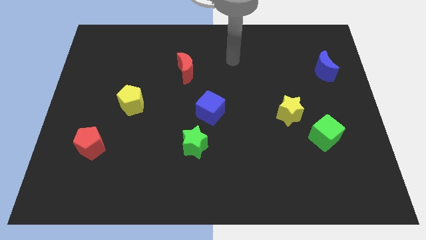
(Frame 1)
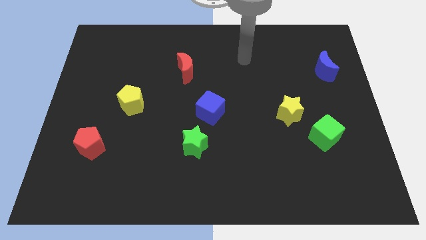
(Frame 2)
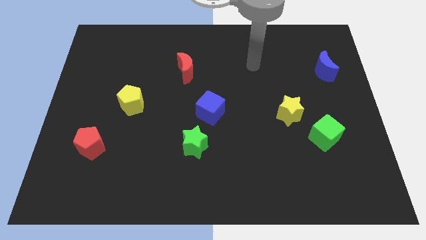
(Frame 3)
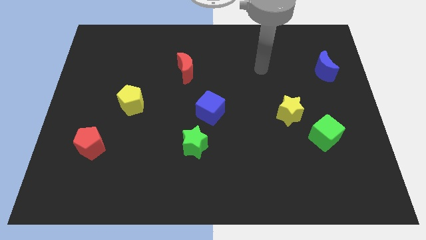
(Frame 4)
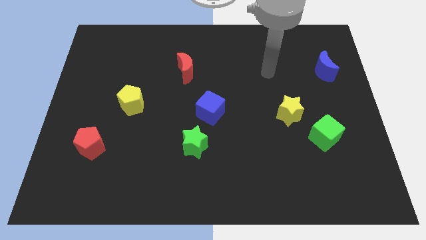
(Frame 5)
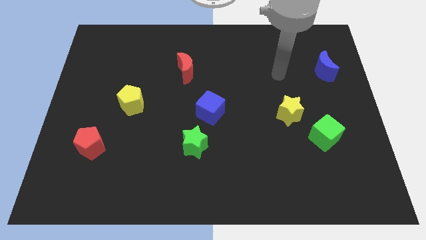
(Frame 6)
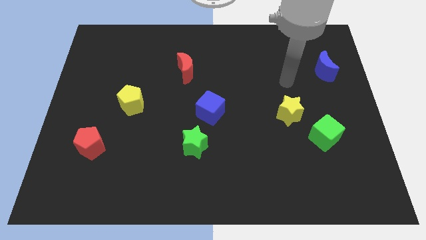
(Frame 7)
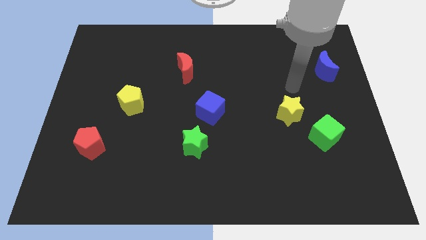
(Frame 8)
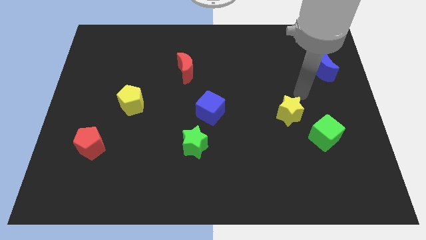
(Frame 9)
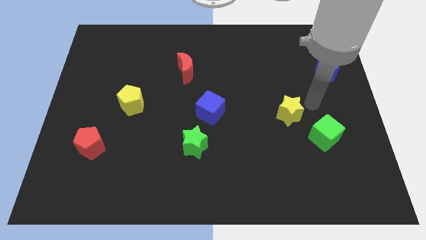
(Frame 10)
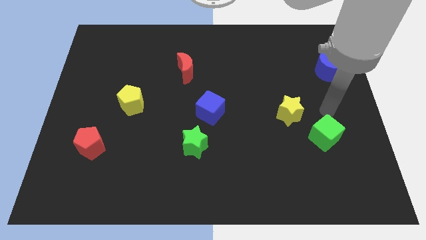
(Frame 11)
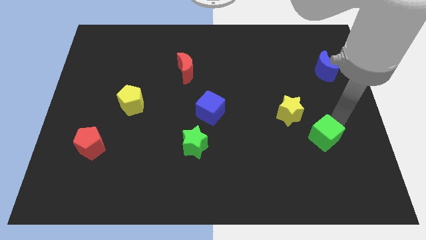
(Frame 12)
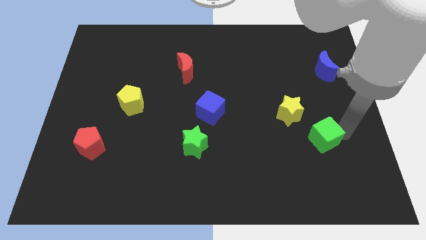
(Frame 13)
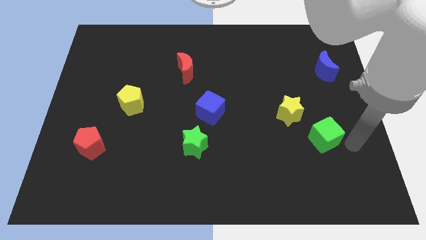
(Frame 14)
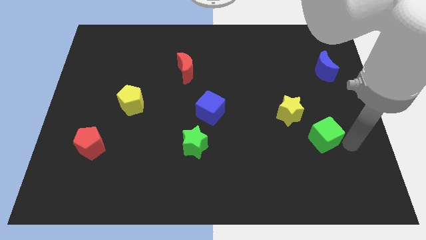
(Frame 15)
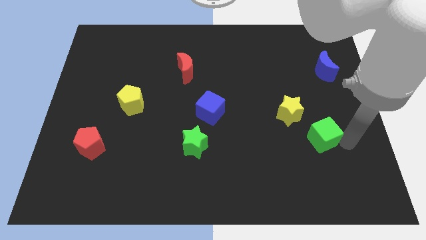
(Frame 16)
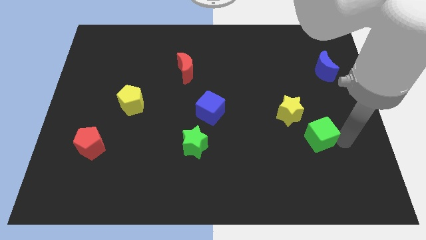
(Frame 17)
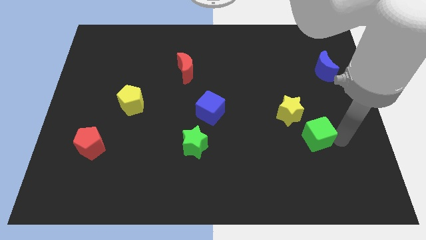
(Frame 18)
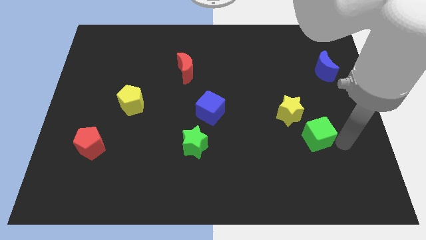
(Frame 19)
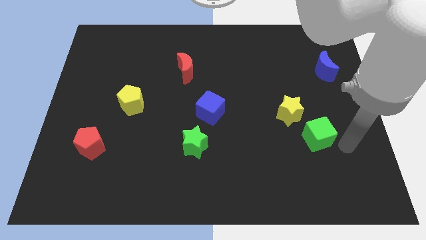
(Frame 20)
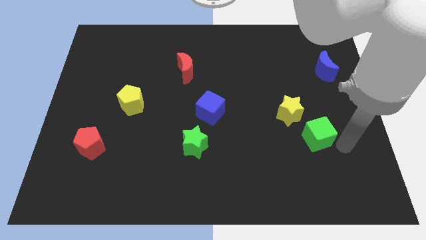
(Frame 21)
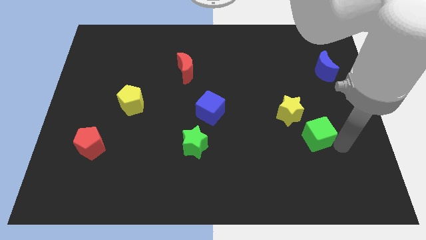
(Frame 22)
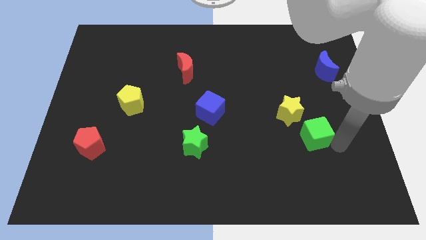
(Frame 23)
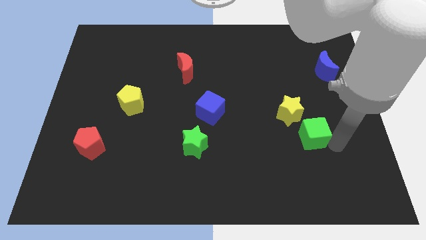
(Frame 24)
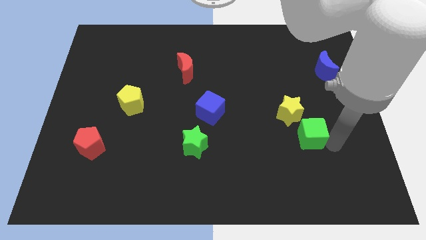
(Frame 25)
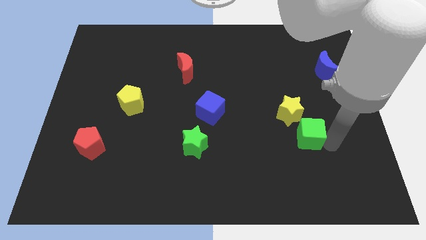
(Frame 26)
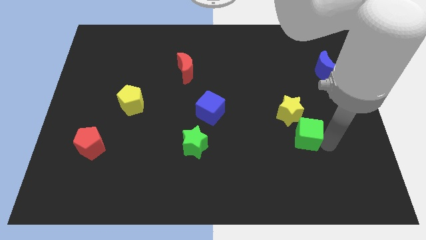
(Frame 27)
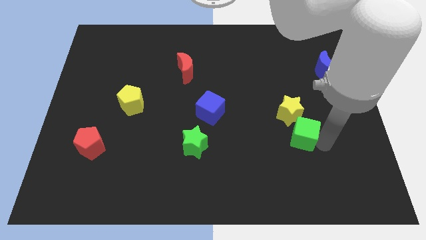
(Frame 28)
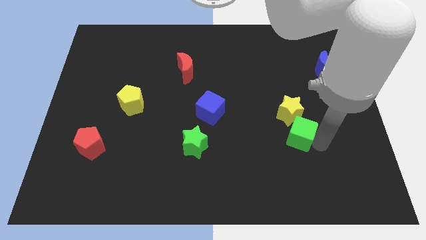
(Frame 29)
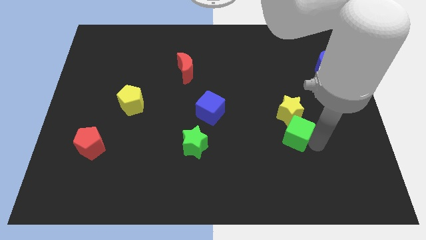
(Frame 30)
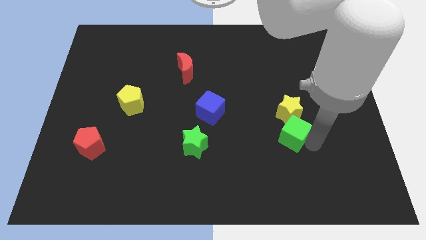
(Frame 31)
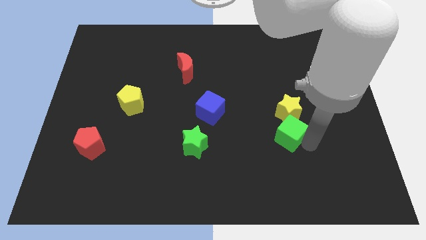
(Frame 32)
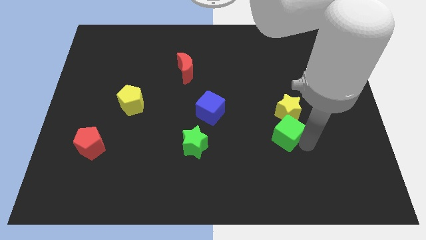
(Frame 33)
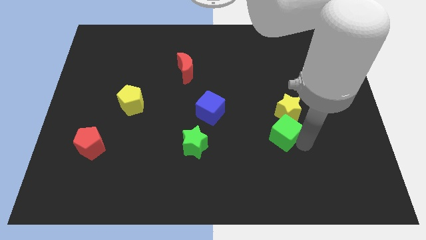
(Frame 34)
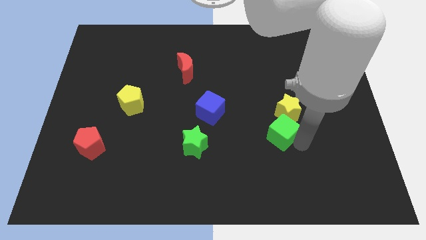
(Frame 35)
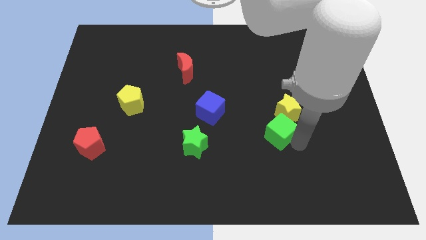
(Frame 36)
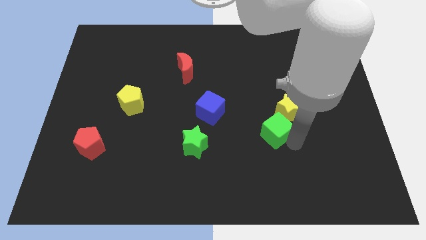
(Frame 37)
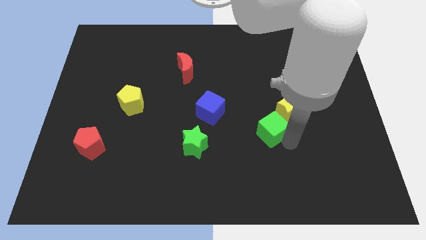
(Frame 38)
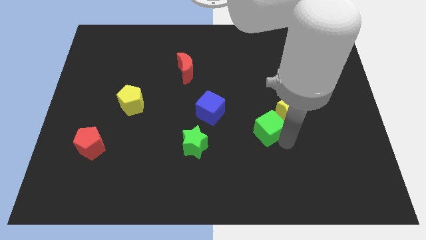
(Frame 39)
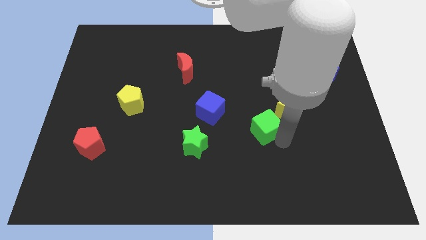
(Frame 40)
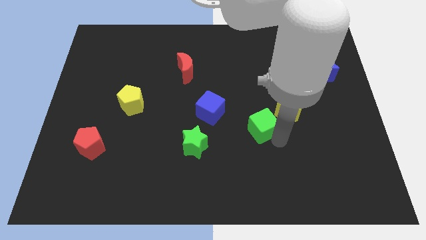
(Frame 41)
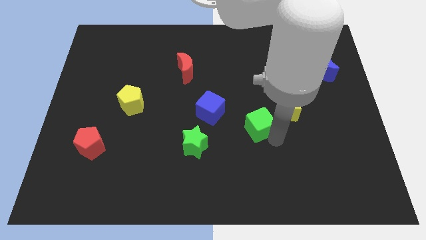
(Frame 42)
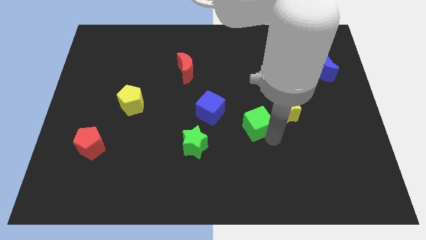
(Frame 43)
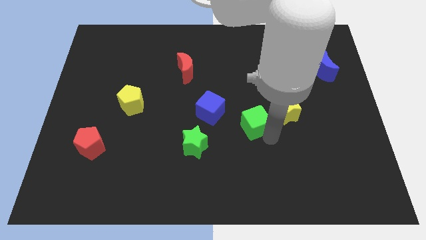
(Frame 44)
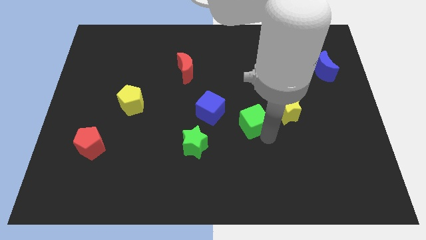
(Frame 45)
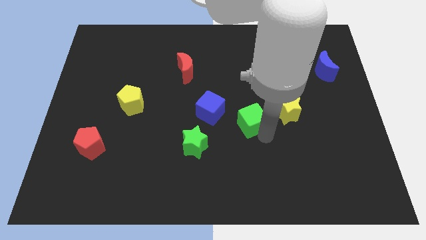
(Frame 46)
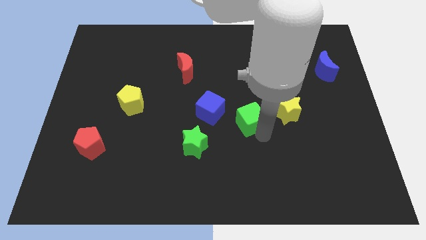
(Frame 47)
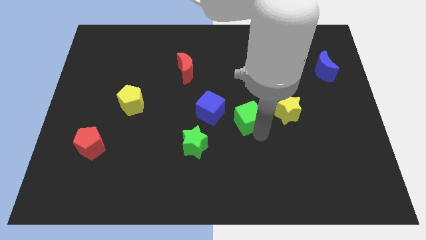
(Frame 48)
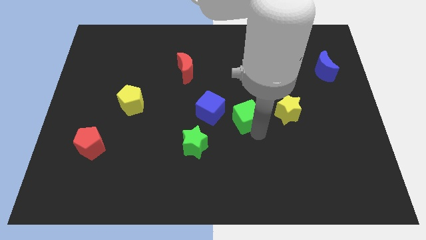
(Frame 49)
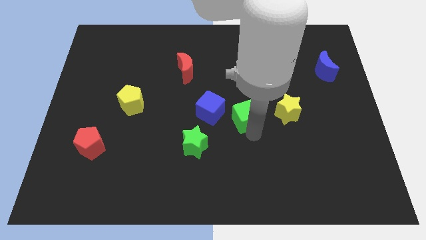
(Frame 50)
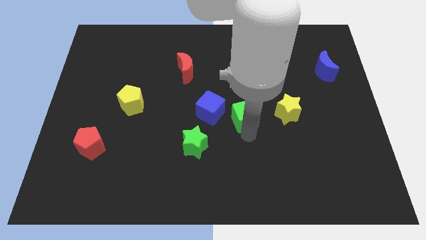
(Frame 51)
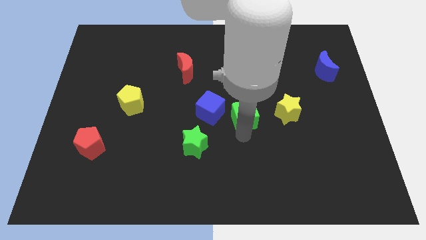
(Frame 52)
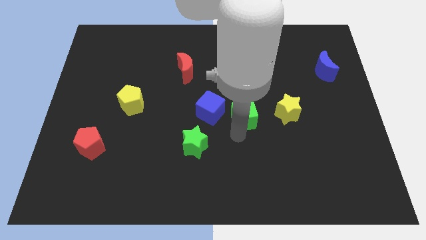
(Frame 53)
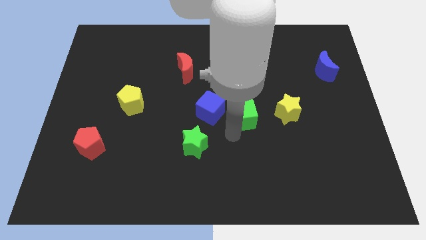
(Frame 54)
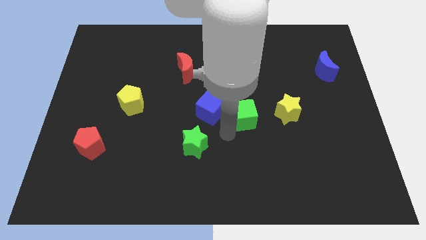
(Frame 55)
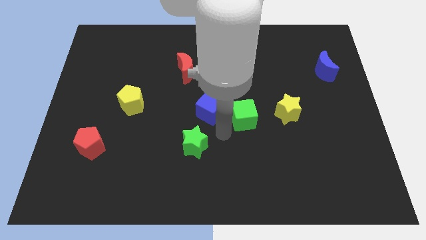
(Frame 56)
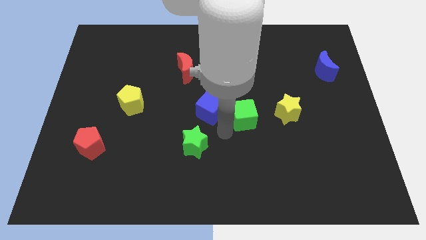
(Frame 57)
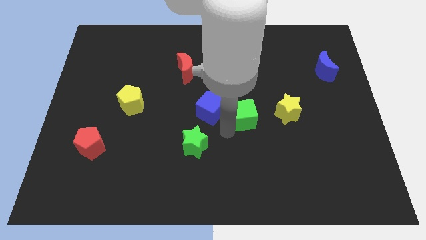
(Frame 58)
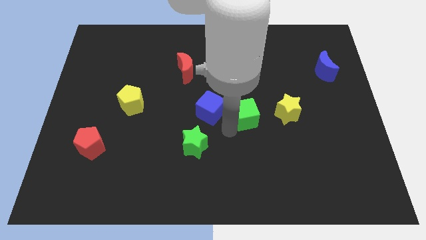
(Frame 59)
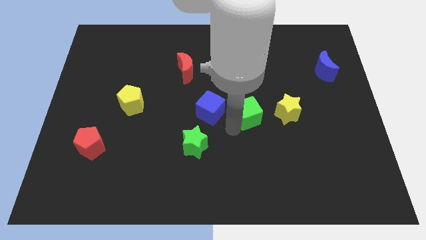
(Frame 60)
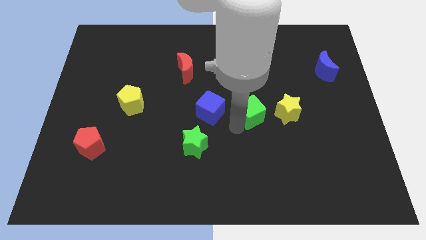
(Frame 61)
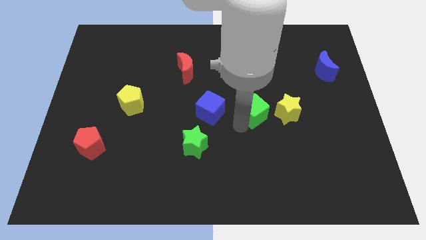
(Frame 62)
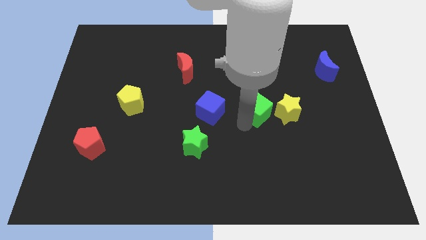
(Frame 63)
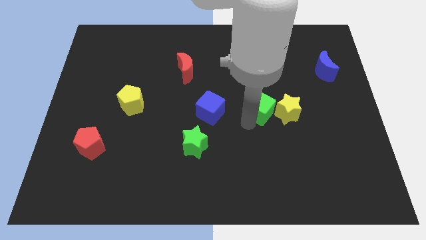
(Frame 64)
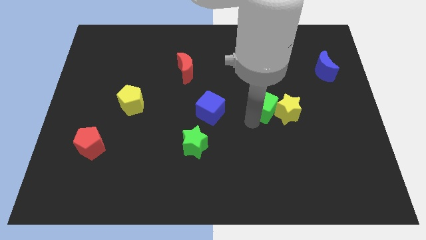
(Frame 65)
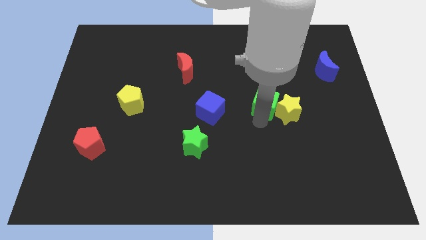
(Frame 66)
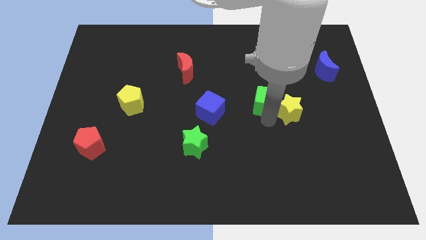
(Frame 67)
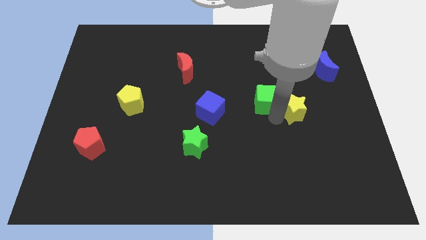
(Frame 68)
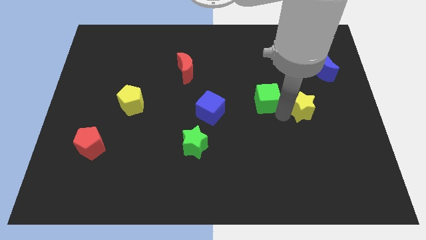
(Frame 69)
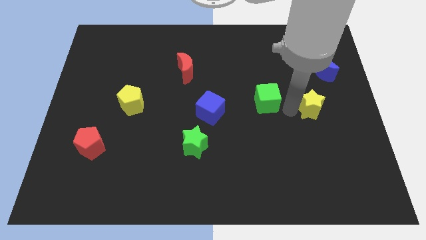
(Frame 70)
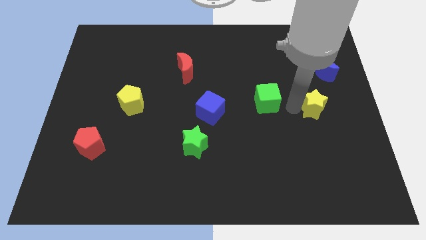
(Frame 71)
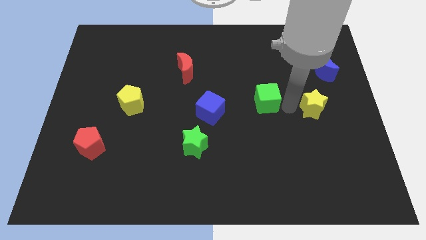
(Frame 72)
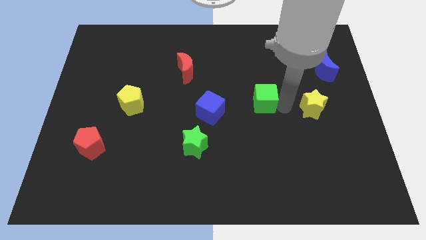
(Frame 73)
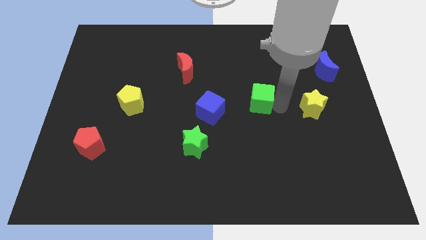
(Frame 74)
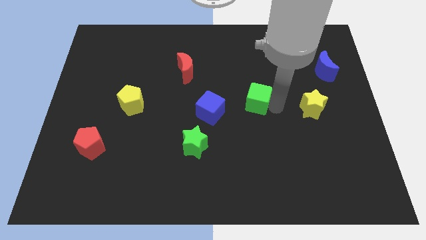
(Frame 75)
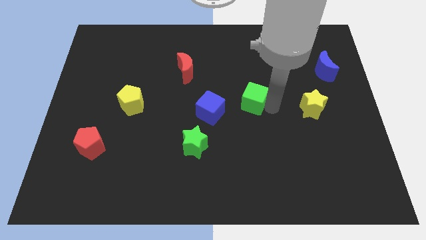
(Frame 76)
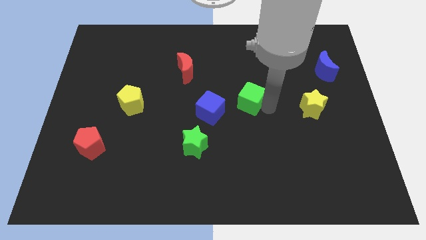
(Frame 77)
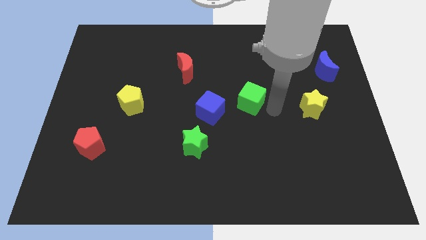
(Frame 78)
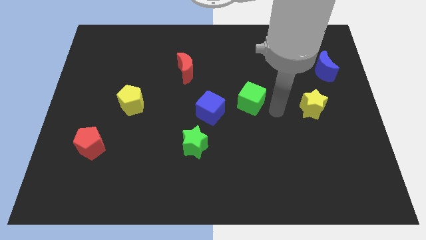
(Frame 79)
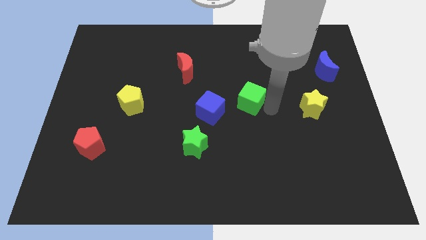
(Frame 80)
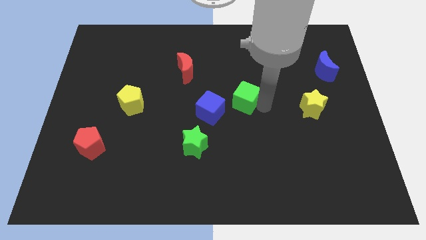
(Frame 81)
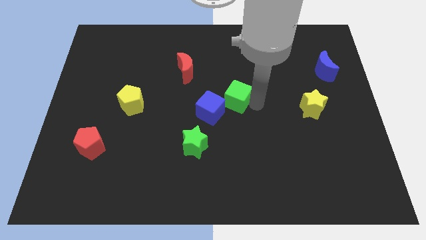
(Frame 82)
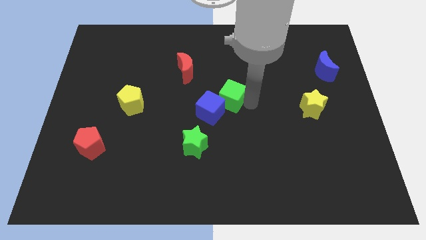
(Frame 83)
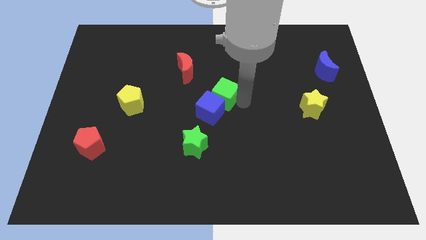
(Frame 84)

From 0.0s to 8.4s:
push the green cube to the bottom right side of the red moon
